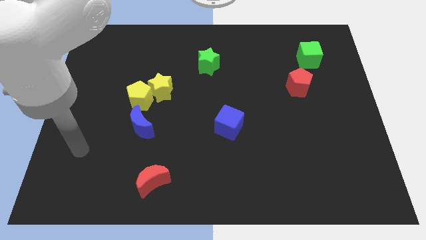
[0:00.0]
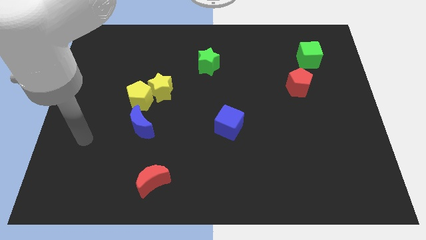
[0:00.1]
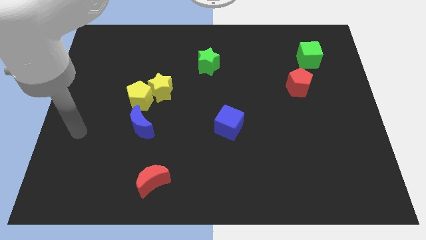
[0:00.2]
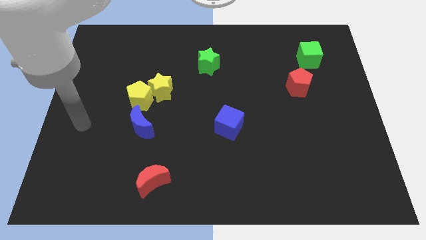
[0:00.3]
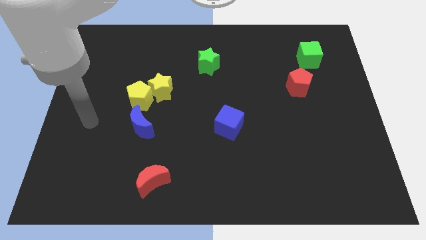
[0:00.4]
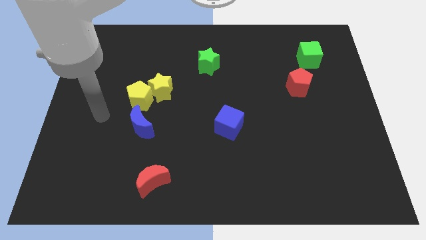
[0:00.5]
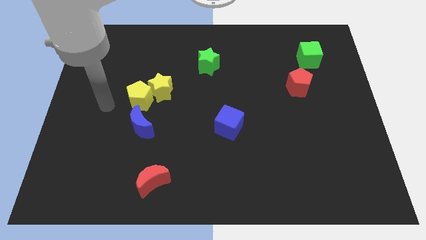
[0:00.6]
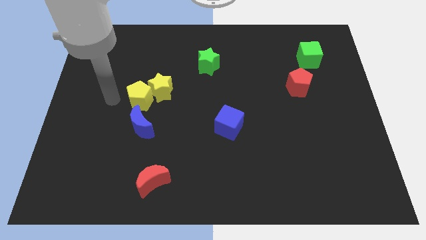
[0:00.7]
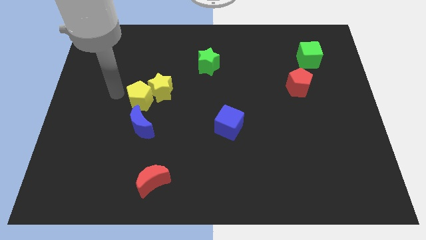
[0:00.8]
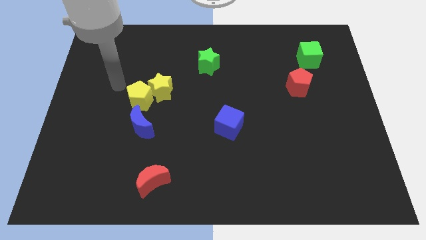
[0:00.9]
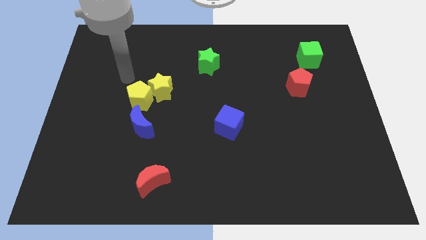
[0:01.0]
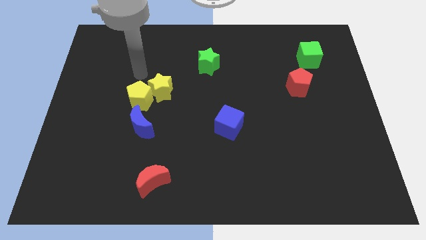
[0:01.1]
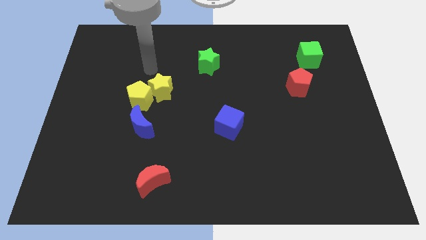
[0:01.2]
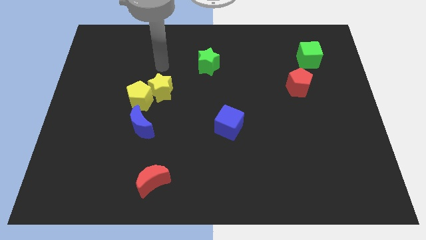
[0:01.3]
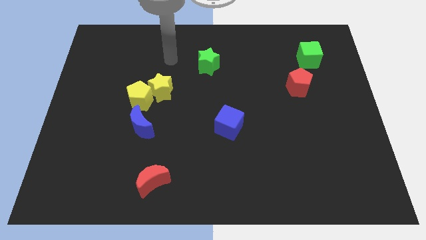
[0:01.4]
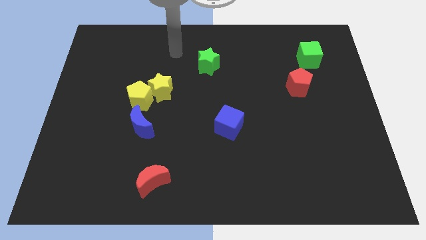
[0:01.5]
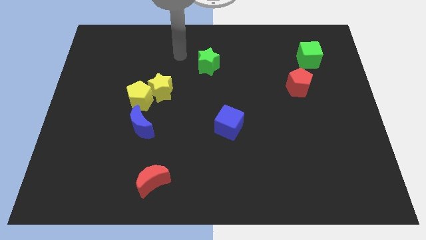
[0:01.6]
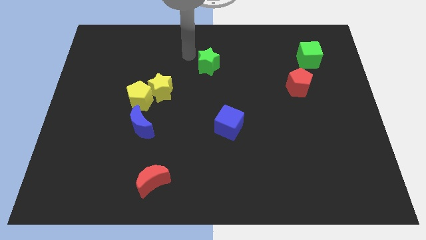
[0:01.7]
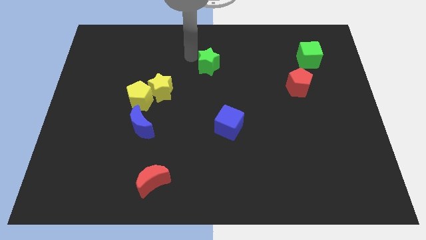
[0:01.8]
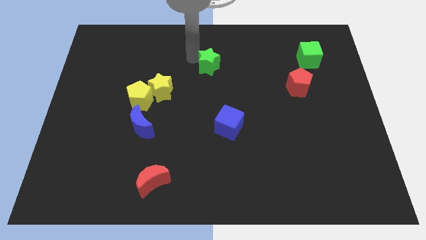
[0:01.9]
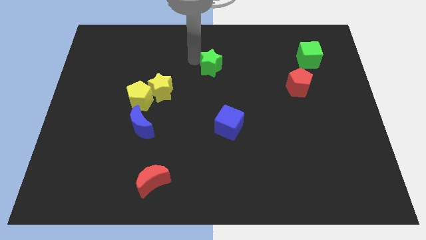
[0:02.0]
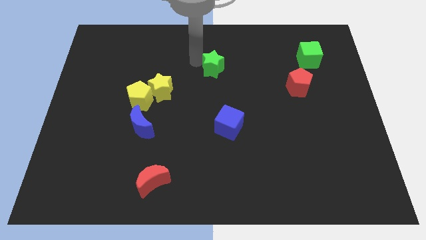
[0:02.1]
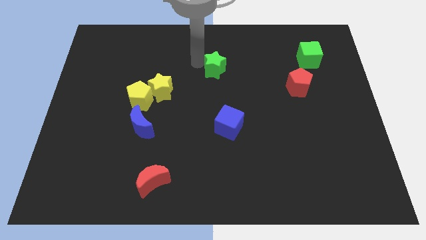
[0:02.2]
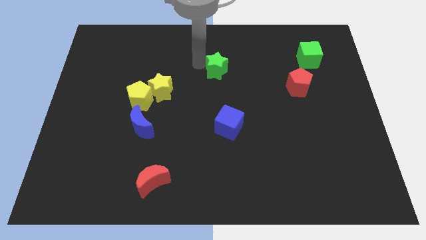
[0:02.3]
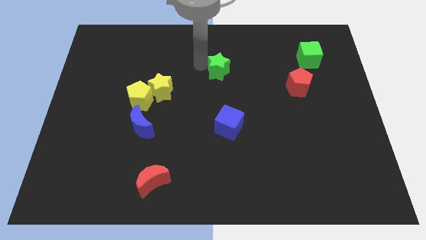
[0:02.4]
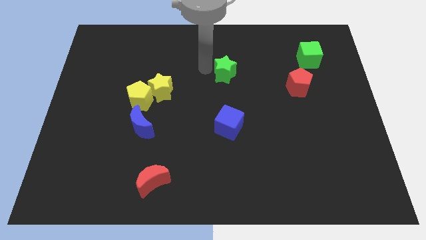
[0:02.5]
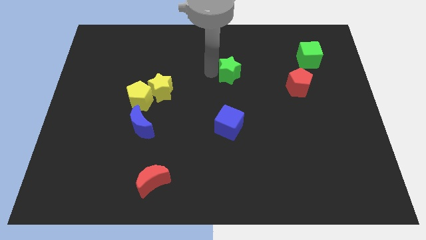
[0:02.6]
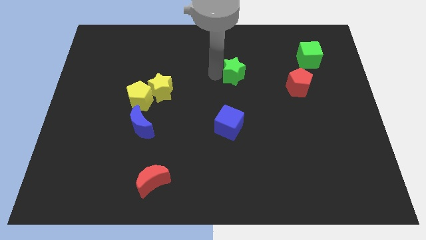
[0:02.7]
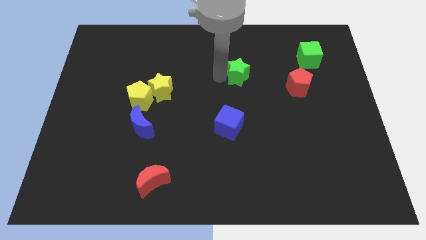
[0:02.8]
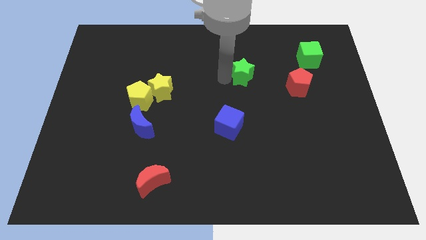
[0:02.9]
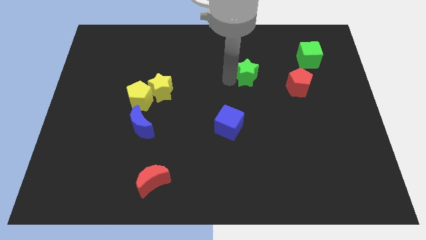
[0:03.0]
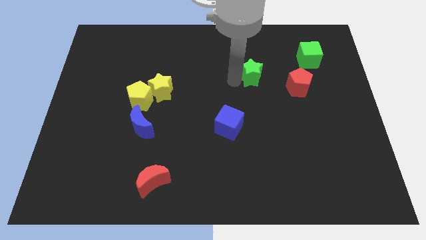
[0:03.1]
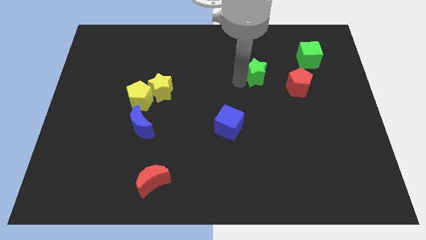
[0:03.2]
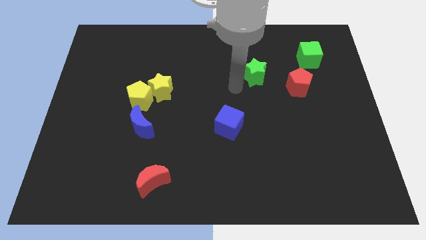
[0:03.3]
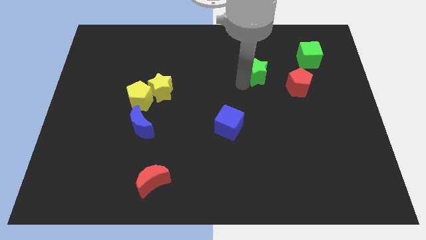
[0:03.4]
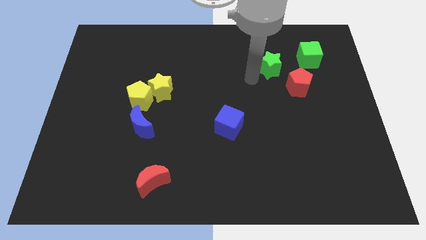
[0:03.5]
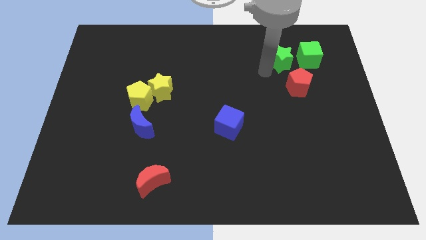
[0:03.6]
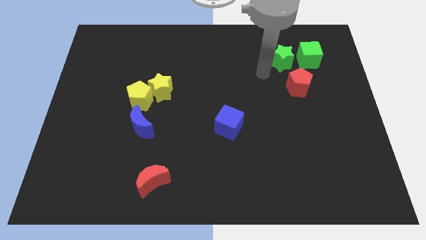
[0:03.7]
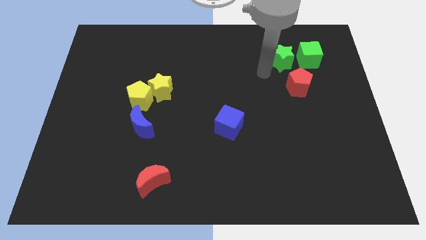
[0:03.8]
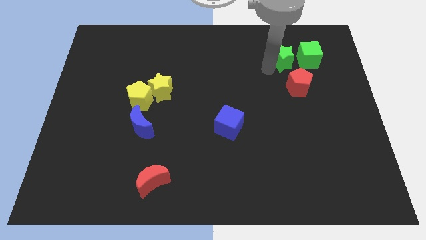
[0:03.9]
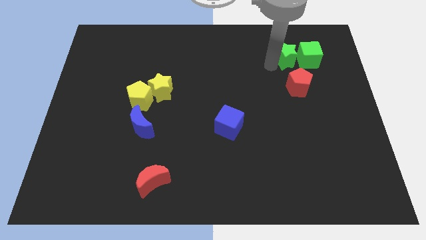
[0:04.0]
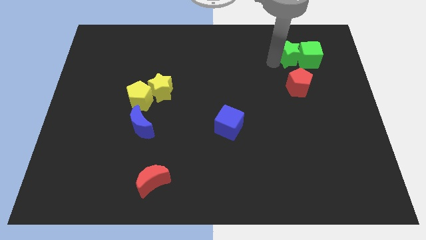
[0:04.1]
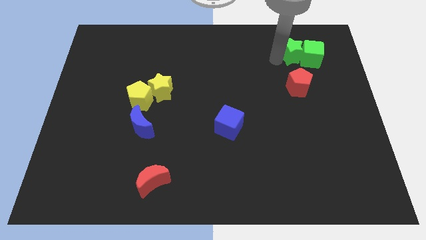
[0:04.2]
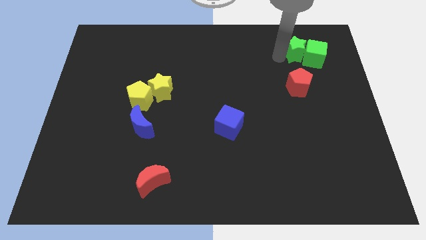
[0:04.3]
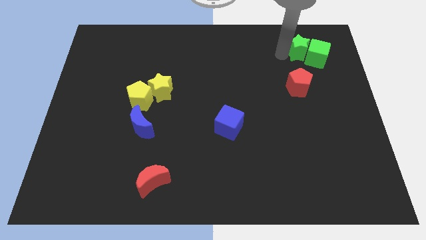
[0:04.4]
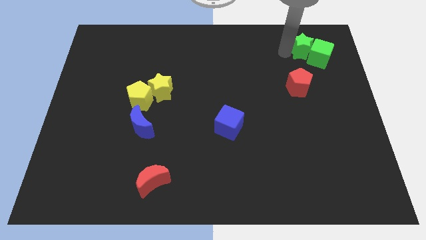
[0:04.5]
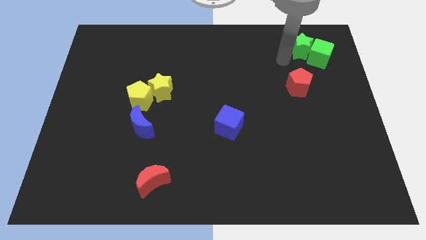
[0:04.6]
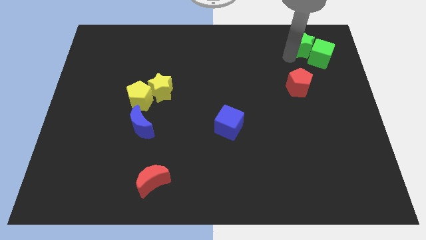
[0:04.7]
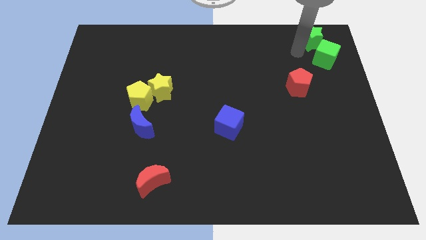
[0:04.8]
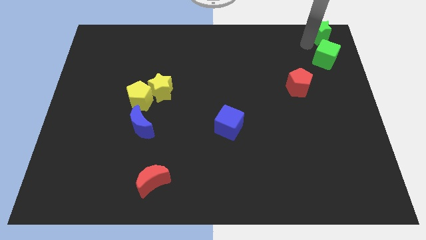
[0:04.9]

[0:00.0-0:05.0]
move the green star to the top right corner

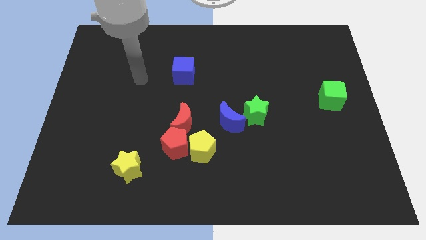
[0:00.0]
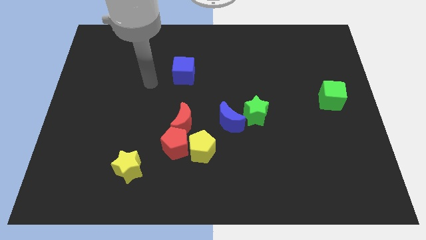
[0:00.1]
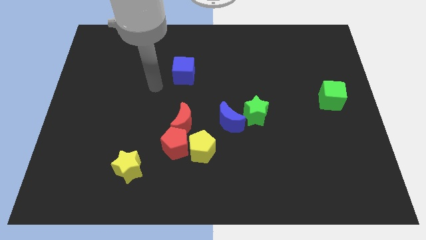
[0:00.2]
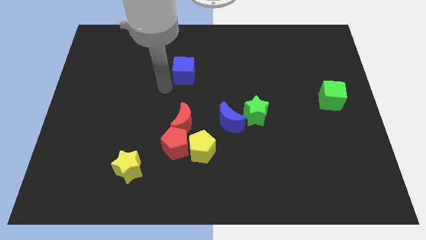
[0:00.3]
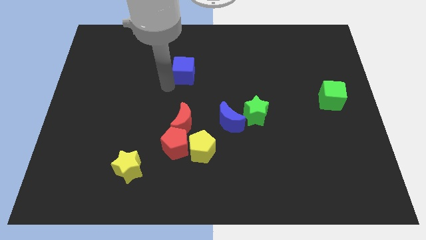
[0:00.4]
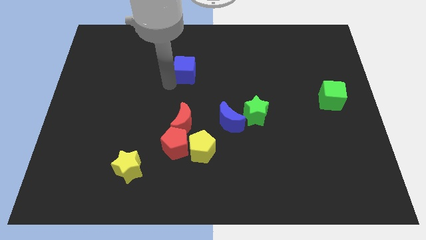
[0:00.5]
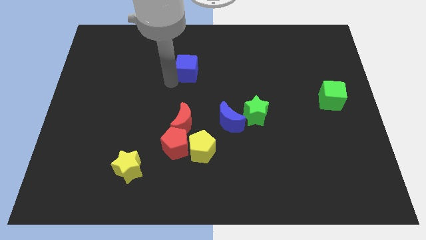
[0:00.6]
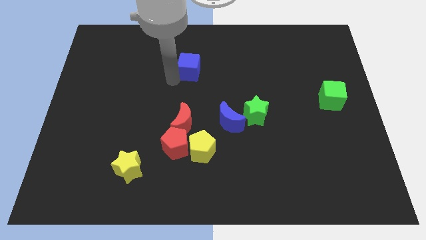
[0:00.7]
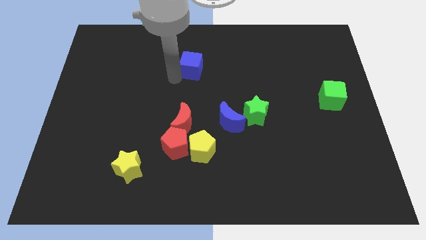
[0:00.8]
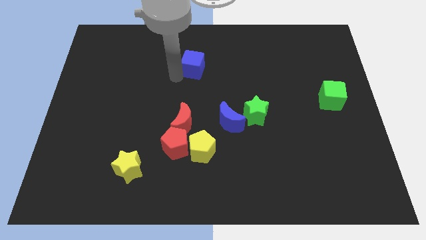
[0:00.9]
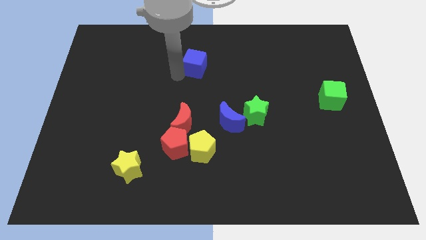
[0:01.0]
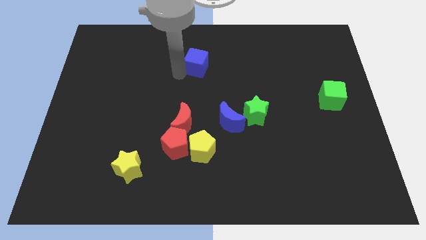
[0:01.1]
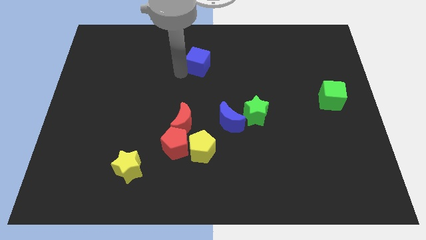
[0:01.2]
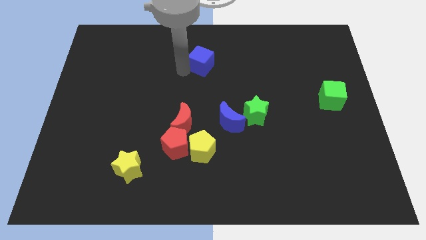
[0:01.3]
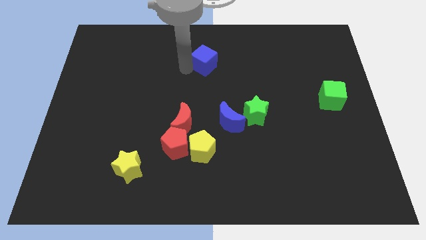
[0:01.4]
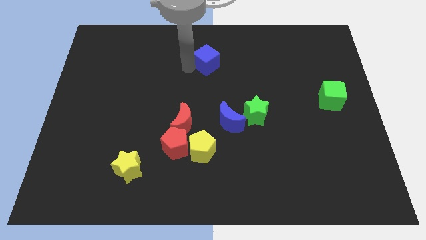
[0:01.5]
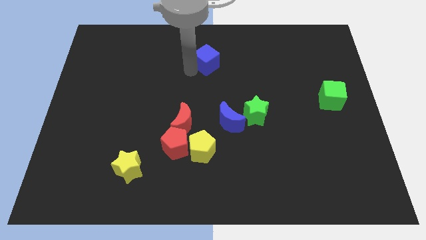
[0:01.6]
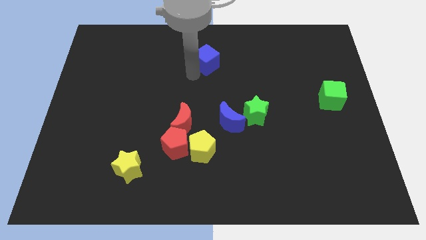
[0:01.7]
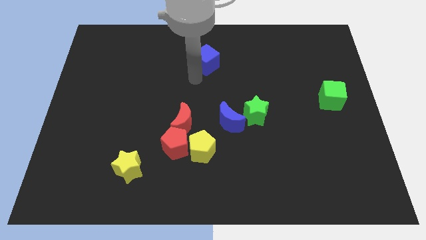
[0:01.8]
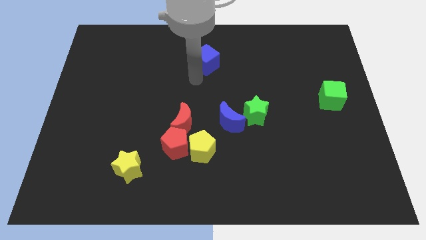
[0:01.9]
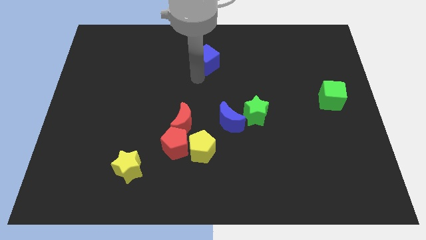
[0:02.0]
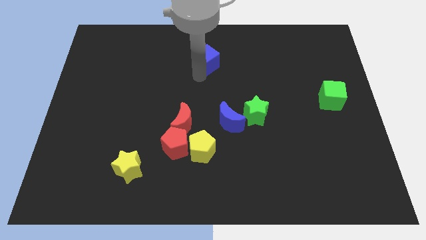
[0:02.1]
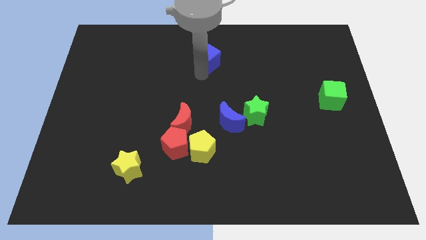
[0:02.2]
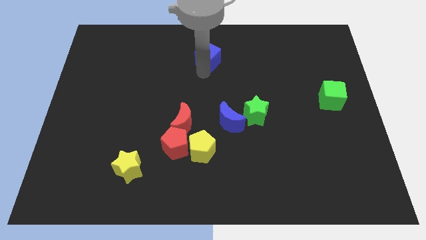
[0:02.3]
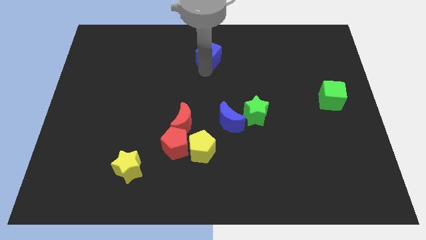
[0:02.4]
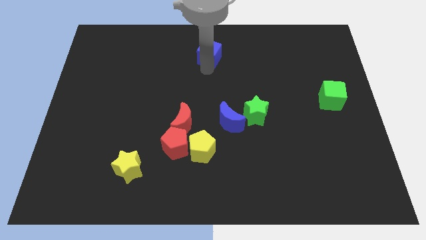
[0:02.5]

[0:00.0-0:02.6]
put the blue cube to the towards your base

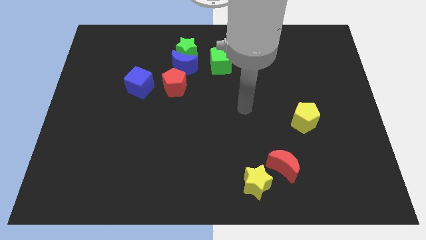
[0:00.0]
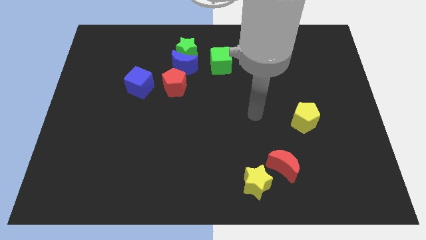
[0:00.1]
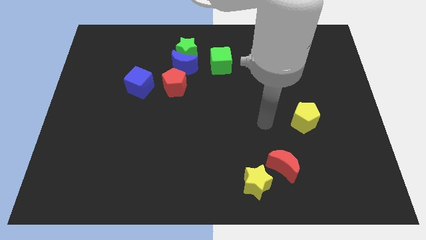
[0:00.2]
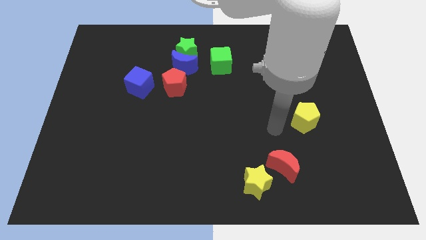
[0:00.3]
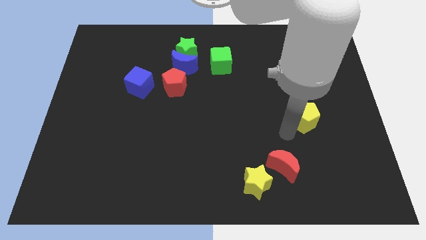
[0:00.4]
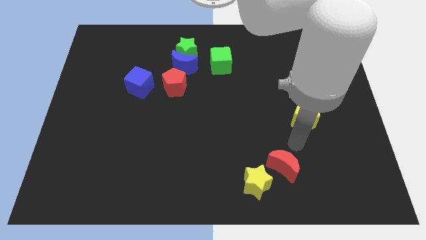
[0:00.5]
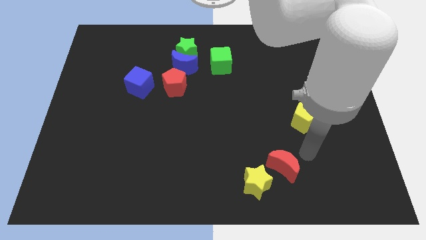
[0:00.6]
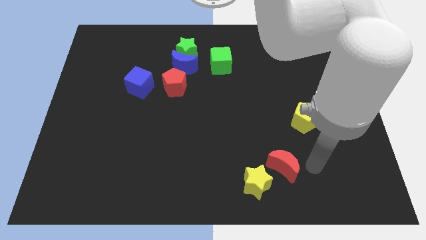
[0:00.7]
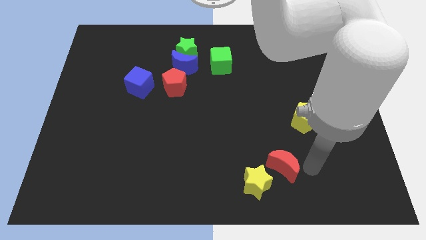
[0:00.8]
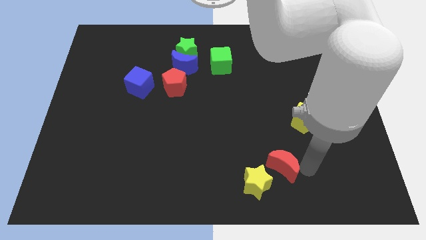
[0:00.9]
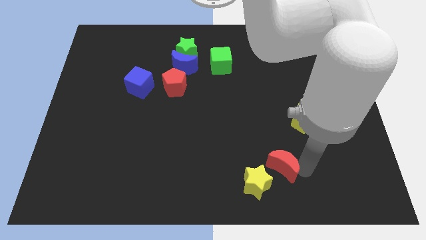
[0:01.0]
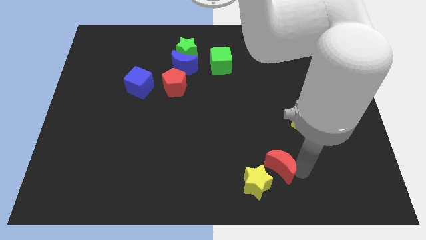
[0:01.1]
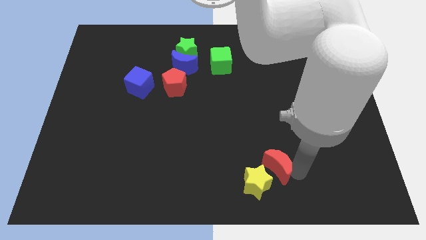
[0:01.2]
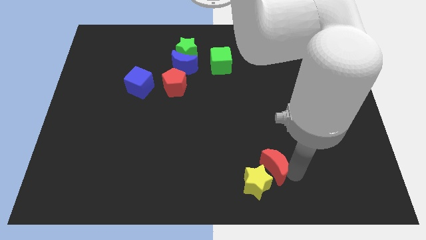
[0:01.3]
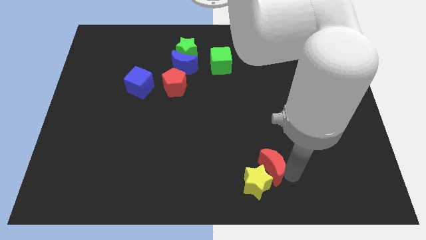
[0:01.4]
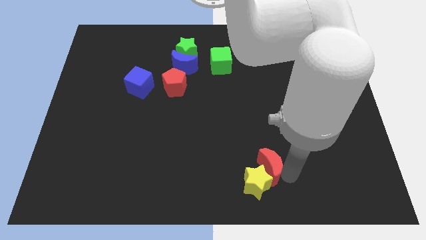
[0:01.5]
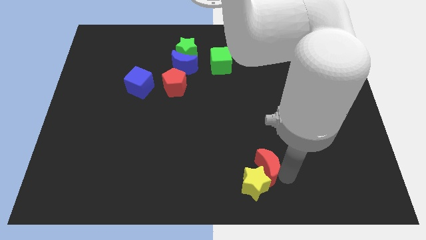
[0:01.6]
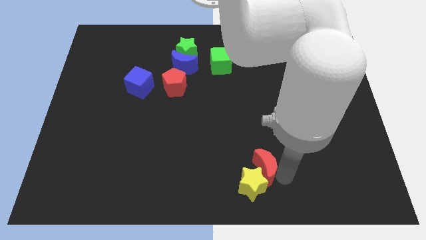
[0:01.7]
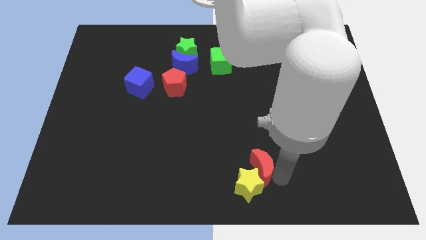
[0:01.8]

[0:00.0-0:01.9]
slide the red moon to the bottom side
